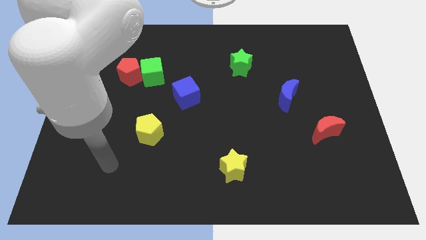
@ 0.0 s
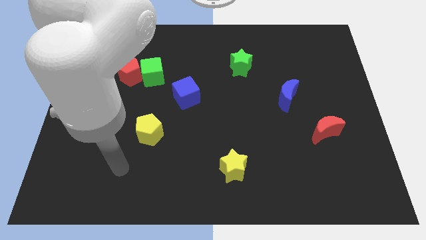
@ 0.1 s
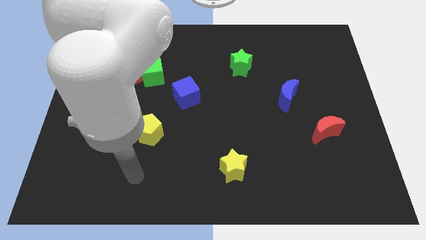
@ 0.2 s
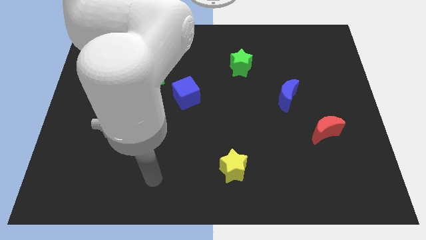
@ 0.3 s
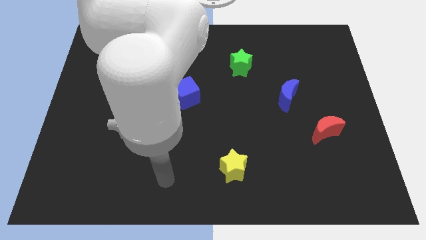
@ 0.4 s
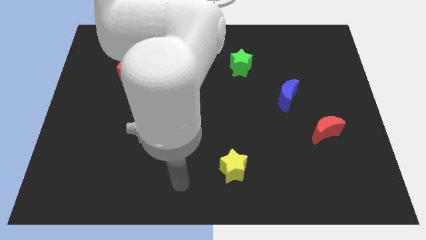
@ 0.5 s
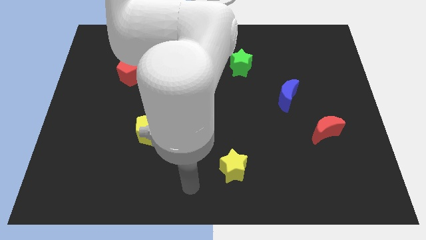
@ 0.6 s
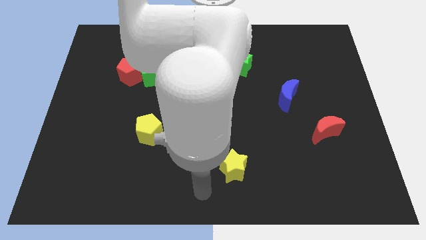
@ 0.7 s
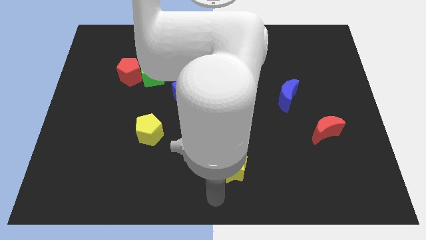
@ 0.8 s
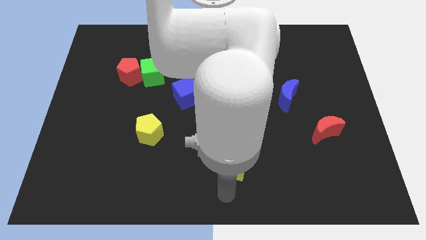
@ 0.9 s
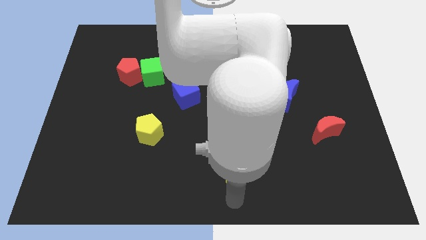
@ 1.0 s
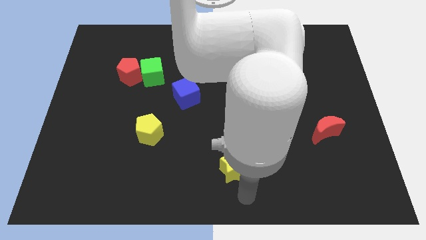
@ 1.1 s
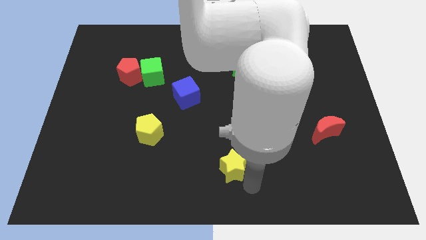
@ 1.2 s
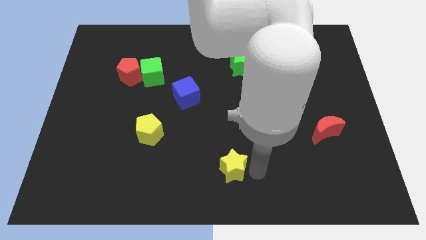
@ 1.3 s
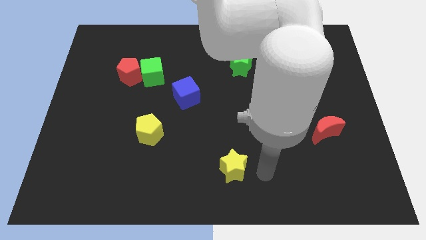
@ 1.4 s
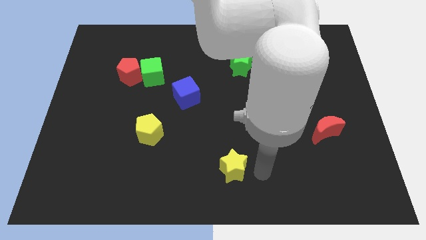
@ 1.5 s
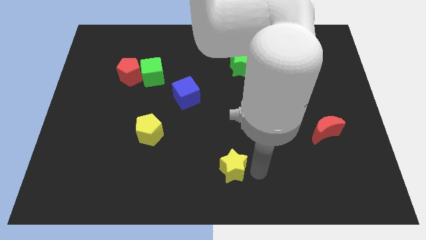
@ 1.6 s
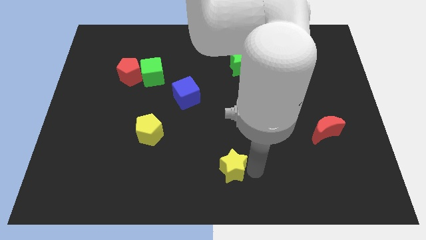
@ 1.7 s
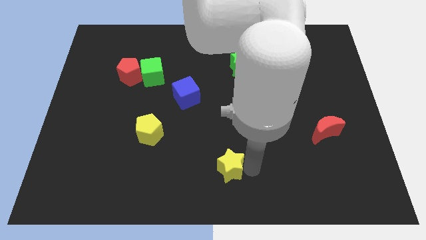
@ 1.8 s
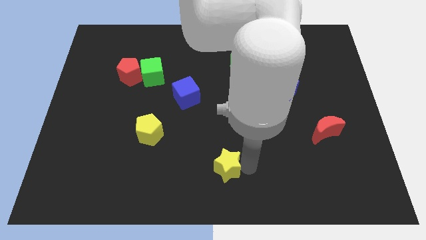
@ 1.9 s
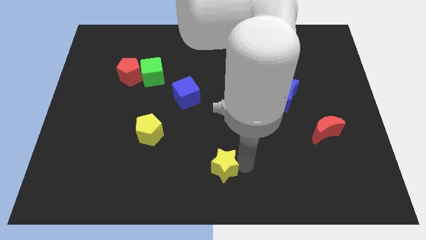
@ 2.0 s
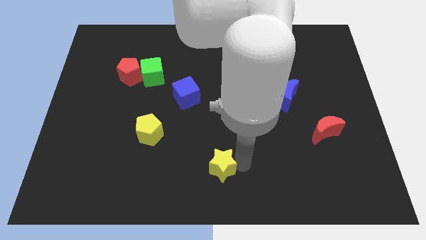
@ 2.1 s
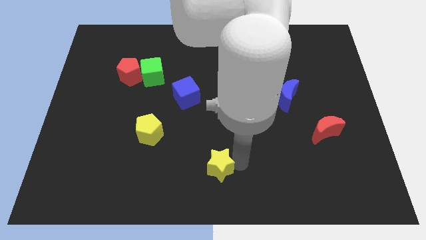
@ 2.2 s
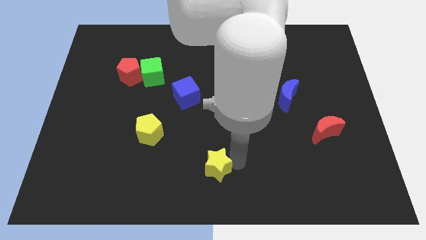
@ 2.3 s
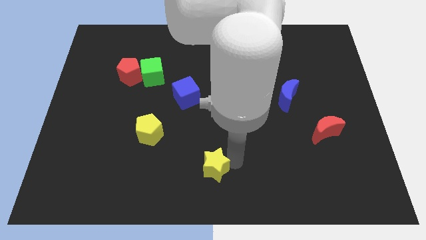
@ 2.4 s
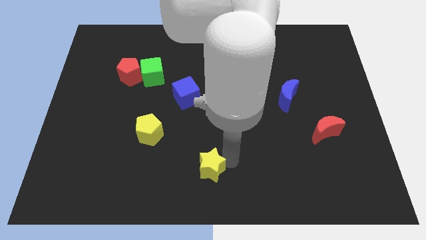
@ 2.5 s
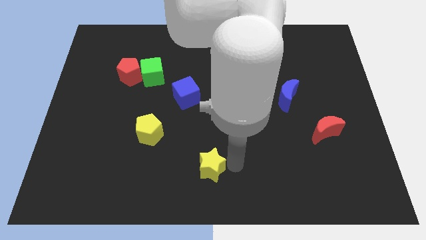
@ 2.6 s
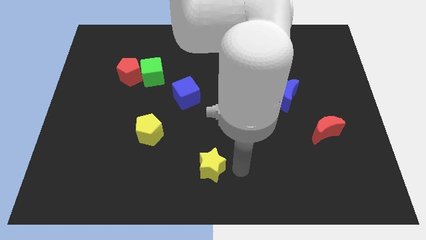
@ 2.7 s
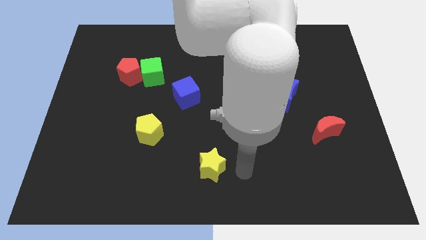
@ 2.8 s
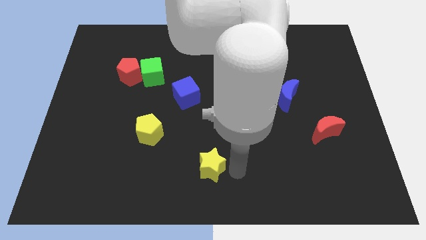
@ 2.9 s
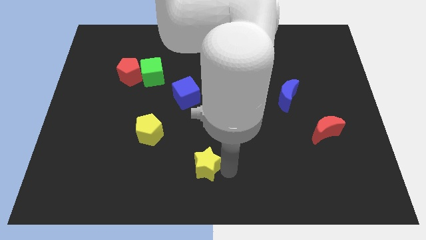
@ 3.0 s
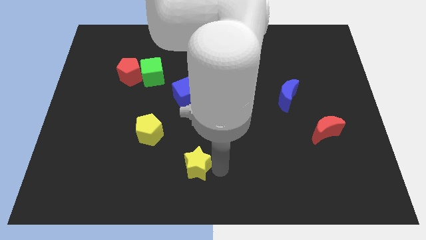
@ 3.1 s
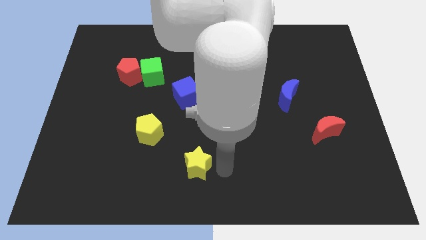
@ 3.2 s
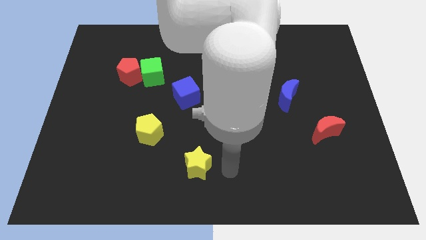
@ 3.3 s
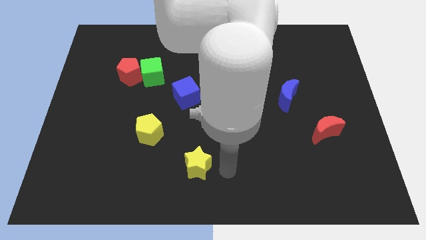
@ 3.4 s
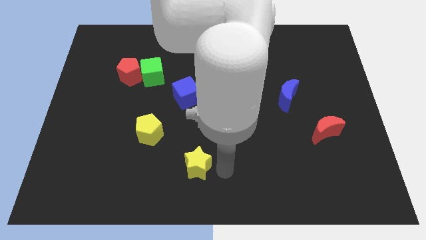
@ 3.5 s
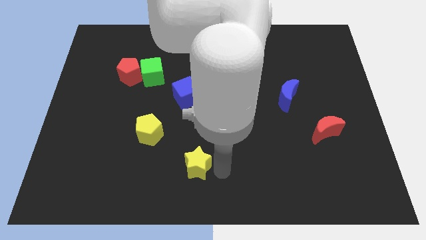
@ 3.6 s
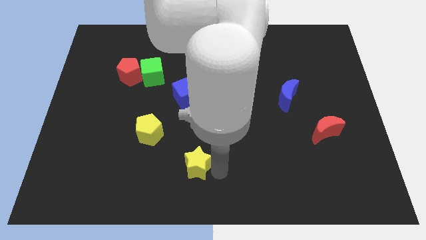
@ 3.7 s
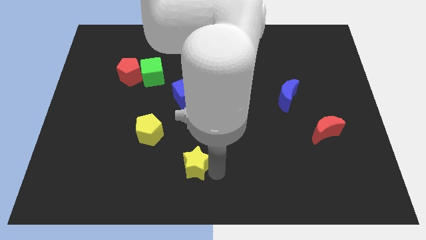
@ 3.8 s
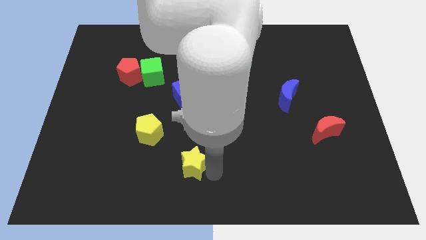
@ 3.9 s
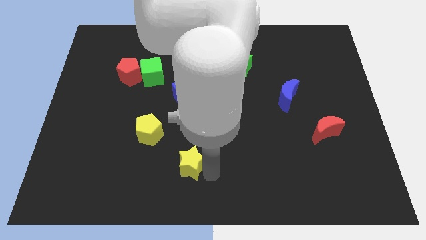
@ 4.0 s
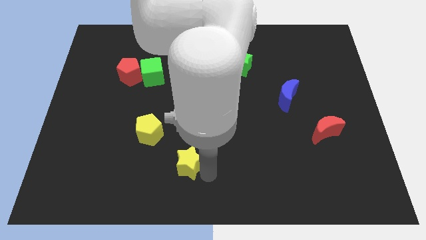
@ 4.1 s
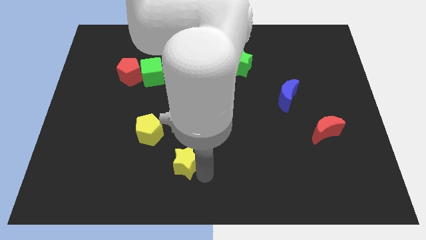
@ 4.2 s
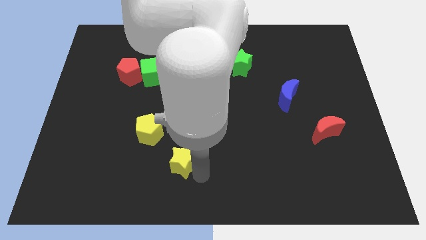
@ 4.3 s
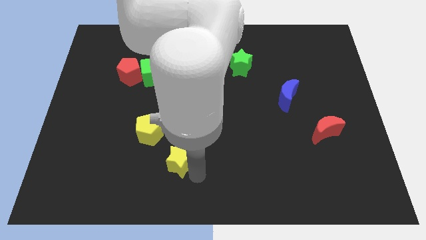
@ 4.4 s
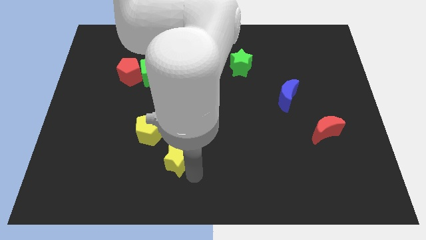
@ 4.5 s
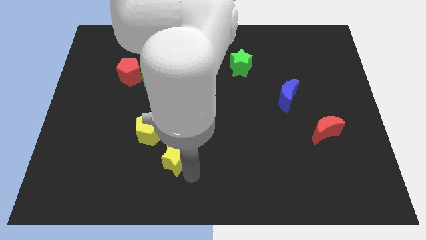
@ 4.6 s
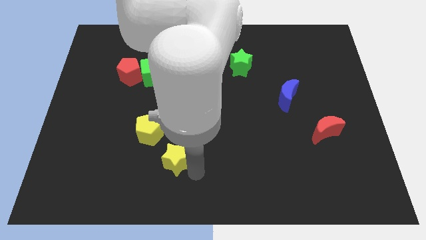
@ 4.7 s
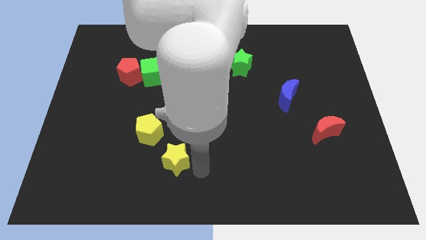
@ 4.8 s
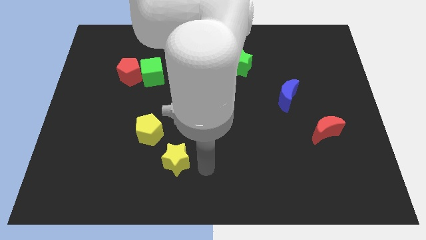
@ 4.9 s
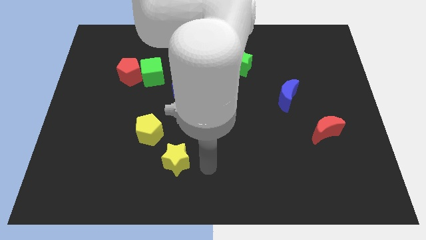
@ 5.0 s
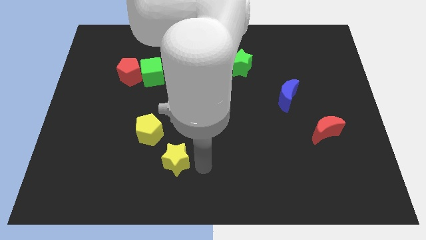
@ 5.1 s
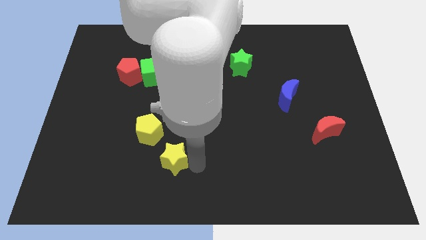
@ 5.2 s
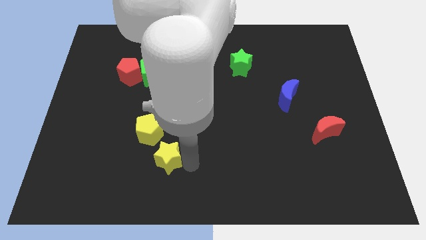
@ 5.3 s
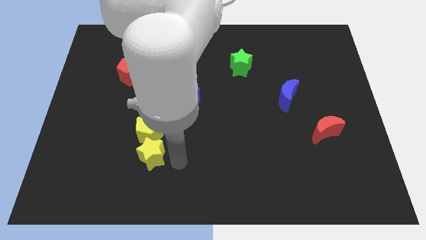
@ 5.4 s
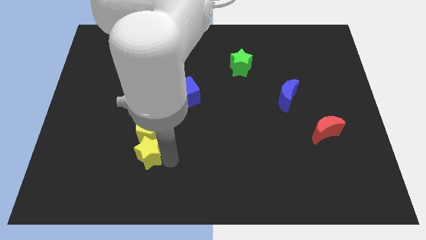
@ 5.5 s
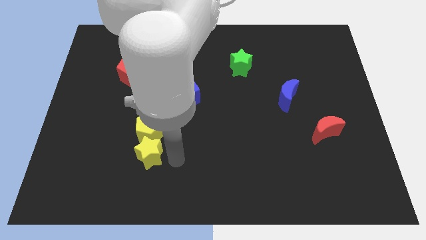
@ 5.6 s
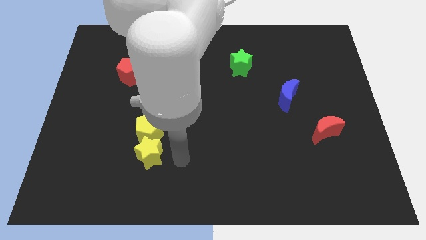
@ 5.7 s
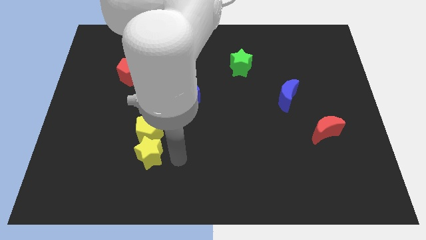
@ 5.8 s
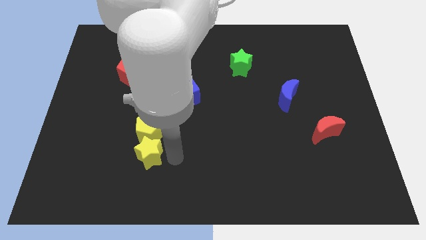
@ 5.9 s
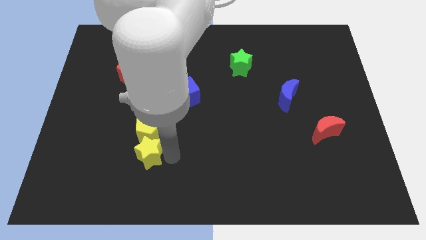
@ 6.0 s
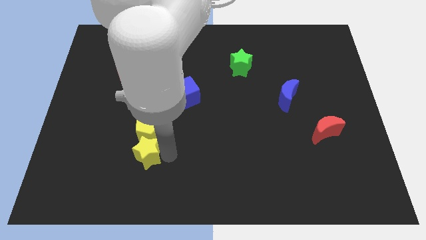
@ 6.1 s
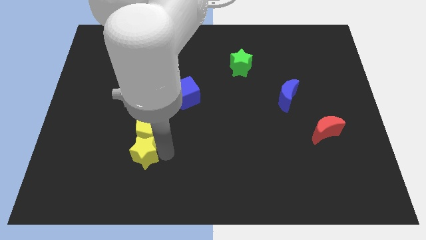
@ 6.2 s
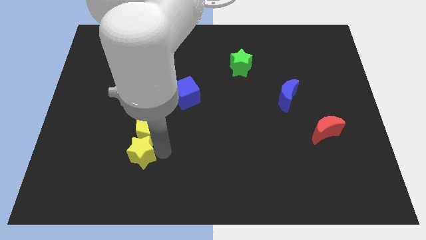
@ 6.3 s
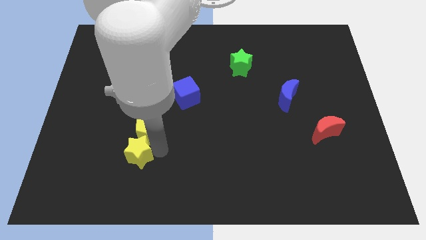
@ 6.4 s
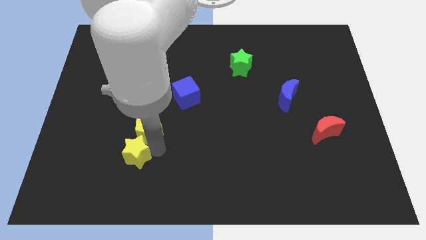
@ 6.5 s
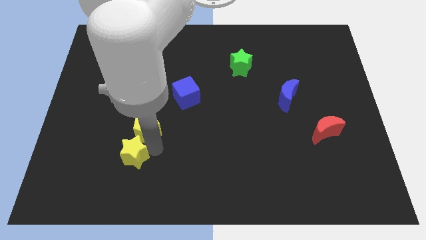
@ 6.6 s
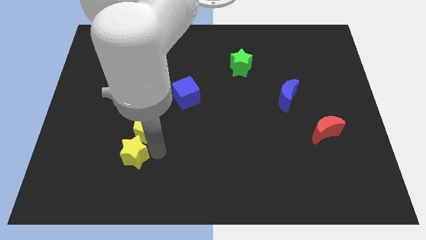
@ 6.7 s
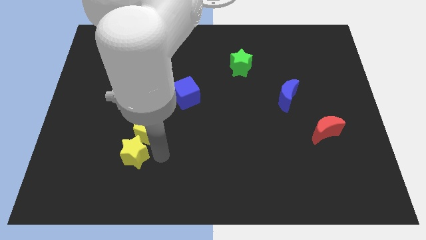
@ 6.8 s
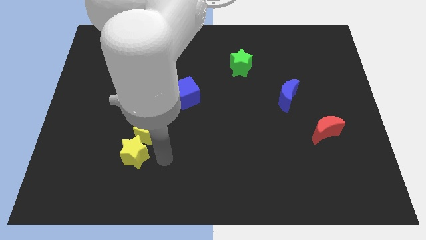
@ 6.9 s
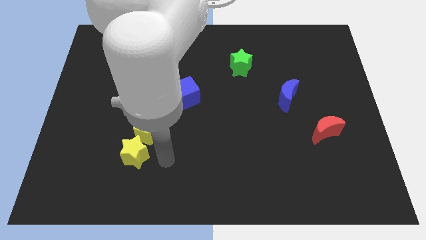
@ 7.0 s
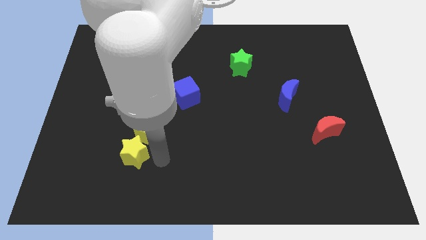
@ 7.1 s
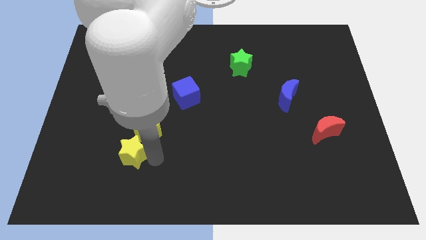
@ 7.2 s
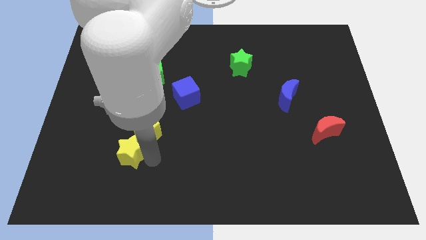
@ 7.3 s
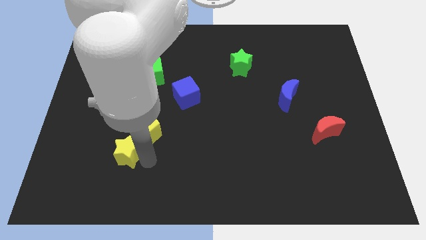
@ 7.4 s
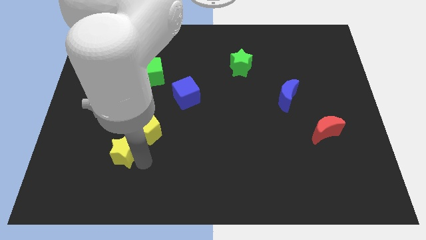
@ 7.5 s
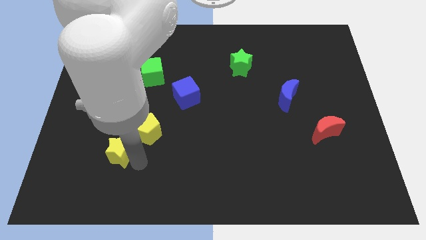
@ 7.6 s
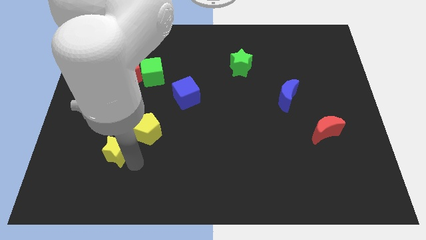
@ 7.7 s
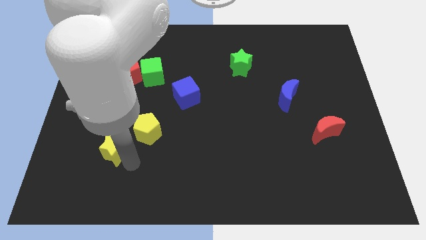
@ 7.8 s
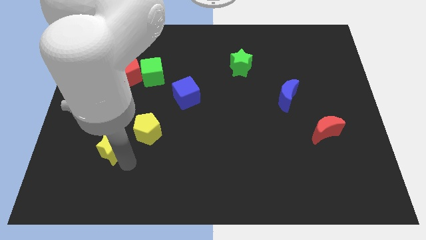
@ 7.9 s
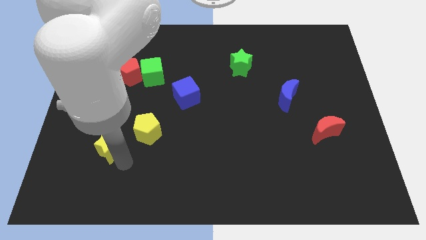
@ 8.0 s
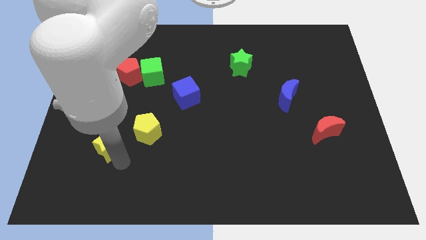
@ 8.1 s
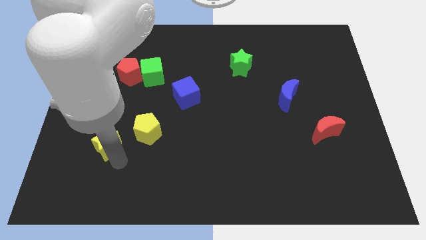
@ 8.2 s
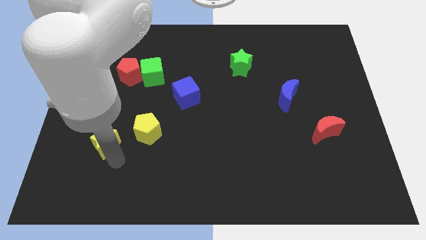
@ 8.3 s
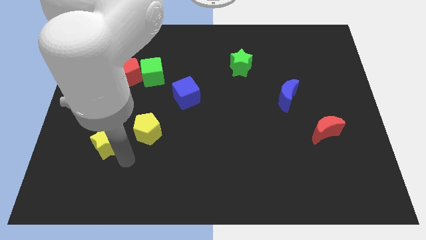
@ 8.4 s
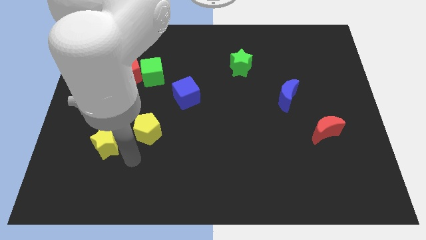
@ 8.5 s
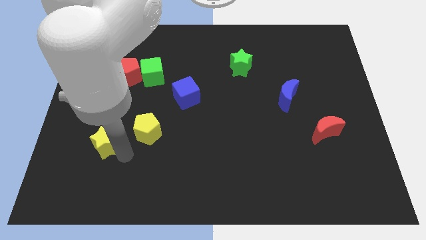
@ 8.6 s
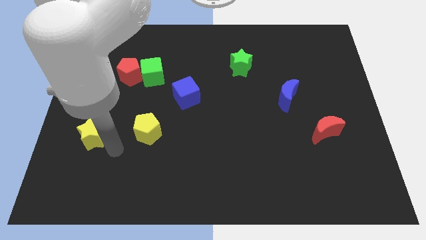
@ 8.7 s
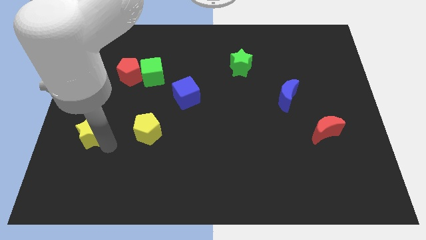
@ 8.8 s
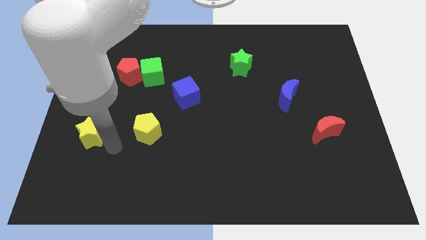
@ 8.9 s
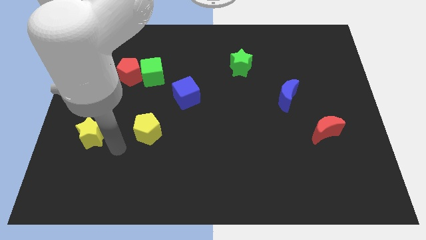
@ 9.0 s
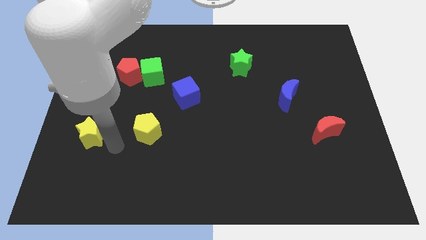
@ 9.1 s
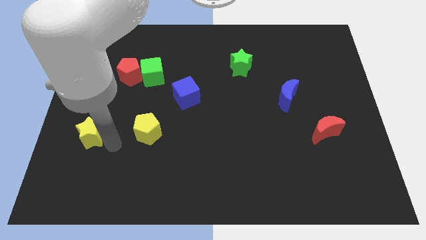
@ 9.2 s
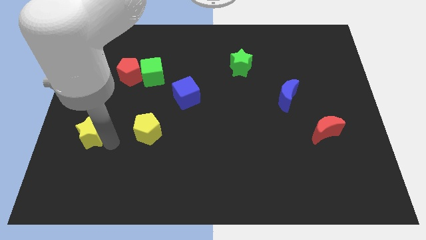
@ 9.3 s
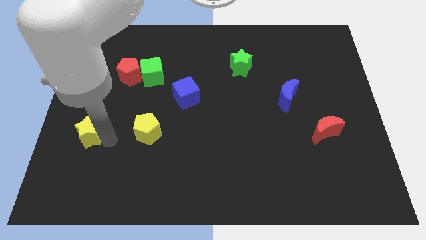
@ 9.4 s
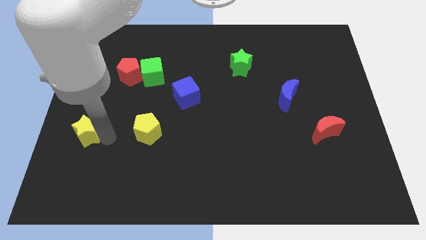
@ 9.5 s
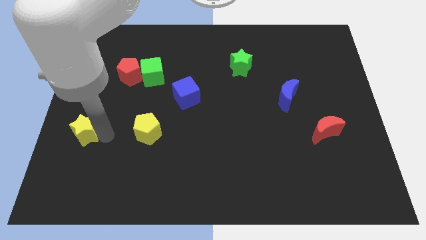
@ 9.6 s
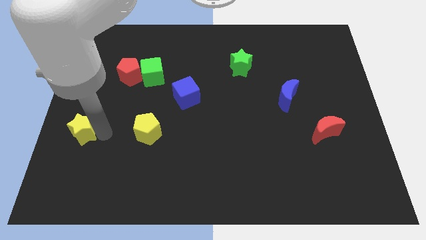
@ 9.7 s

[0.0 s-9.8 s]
slide the yellow star to the left side
